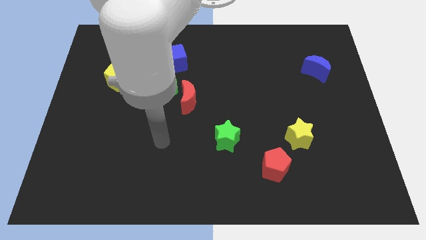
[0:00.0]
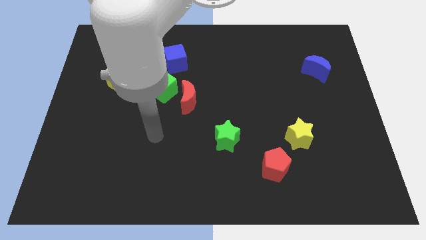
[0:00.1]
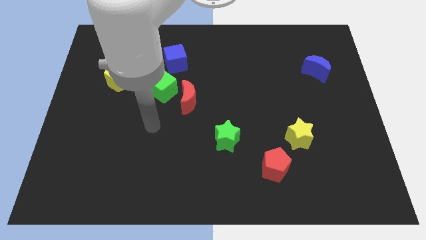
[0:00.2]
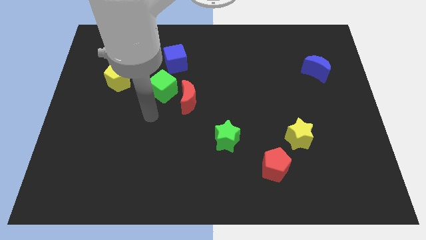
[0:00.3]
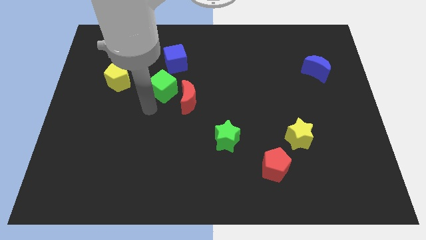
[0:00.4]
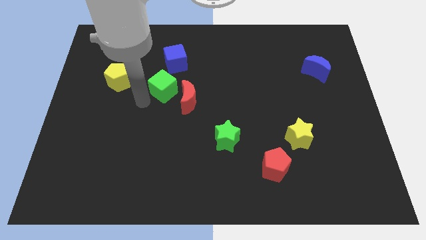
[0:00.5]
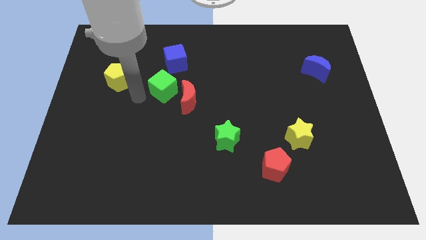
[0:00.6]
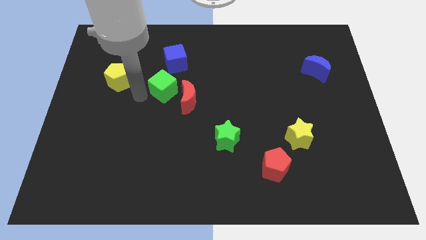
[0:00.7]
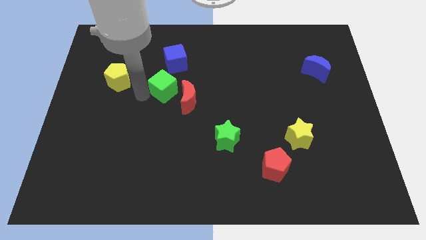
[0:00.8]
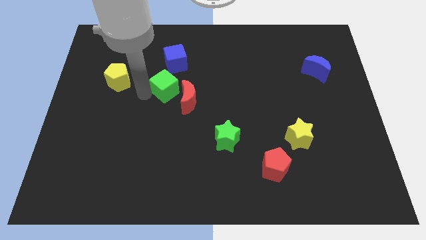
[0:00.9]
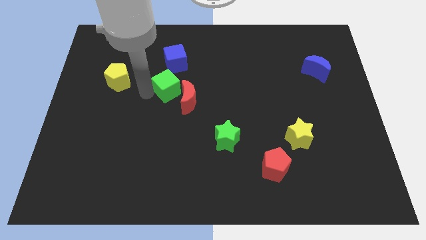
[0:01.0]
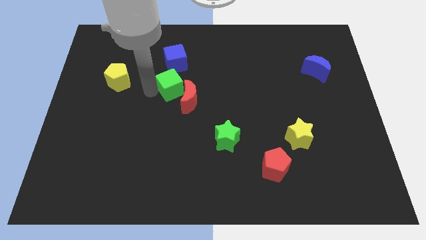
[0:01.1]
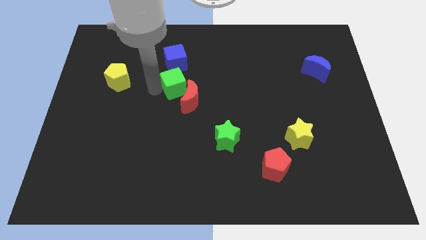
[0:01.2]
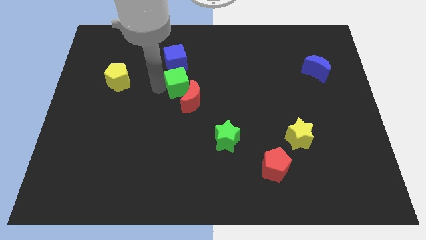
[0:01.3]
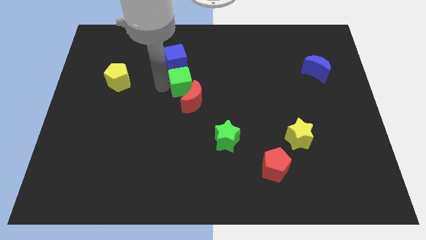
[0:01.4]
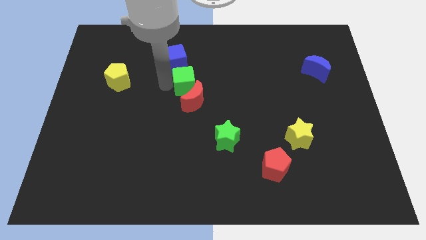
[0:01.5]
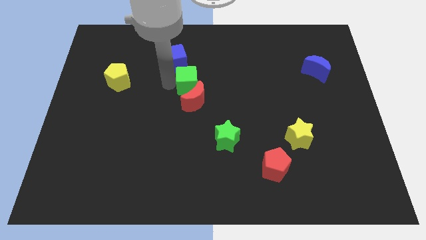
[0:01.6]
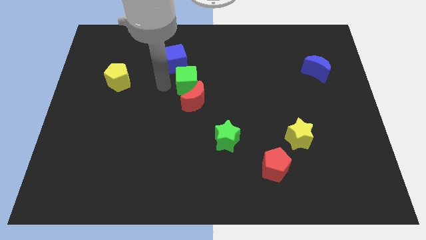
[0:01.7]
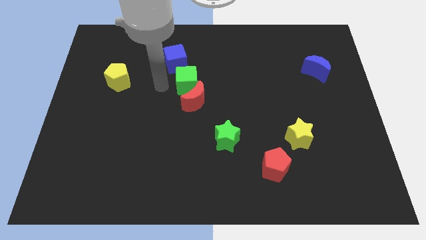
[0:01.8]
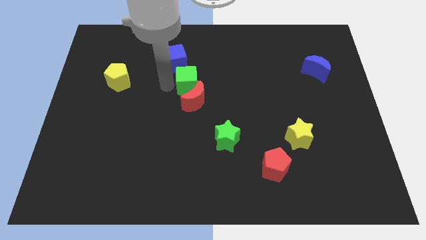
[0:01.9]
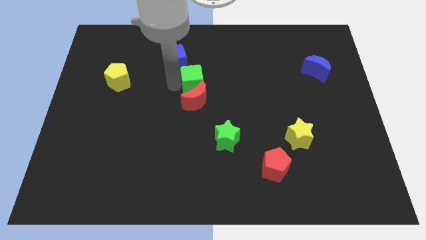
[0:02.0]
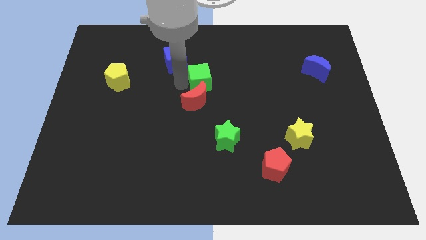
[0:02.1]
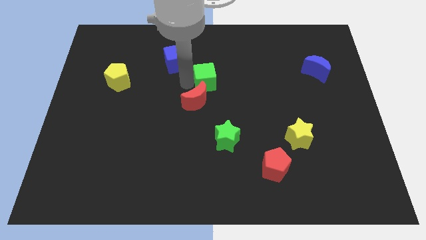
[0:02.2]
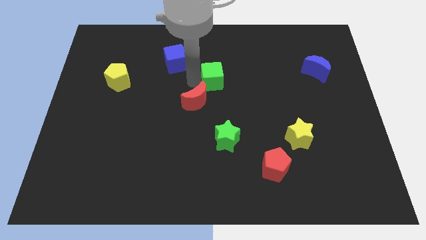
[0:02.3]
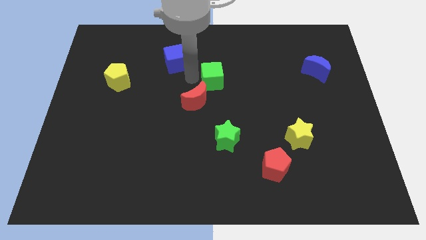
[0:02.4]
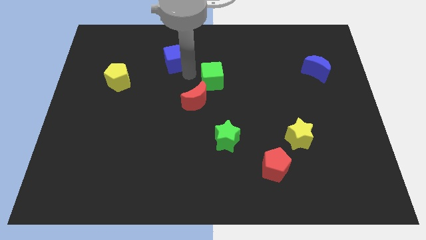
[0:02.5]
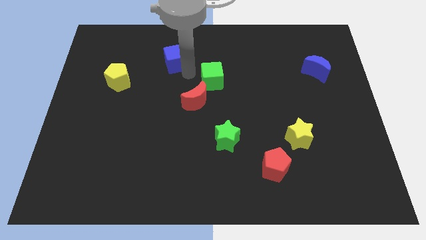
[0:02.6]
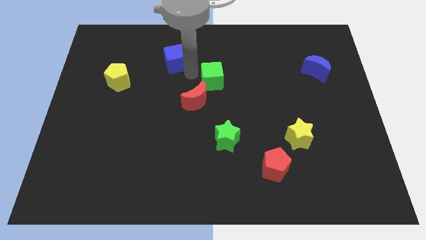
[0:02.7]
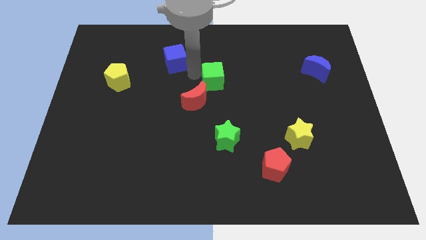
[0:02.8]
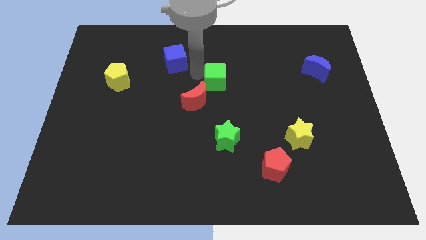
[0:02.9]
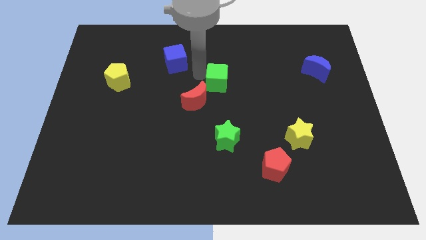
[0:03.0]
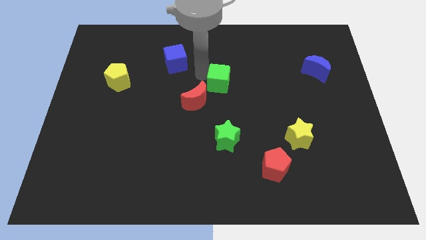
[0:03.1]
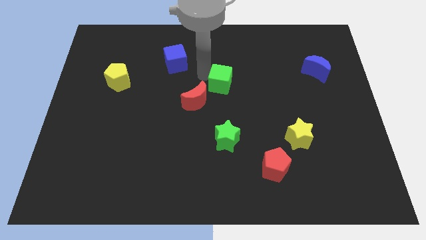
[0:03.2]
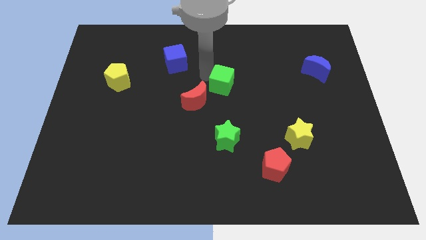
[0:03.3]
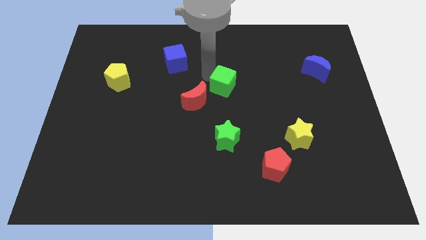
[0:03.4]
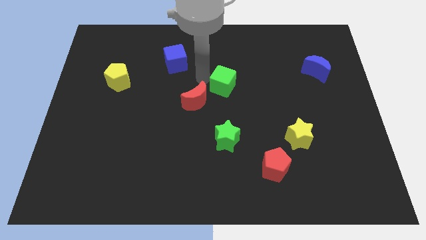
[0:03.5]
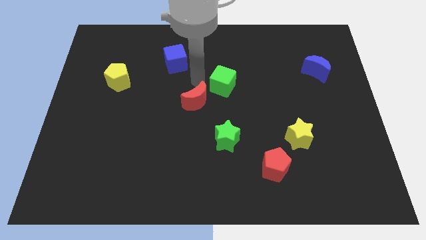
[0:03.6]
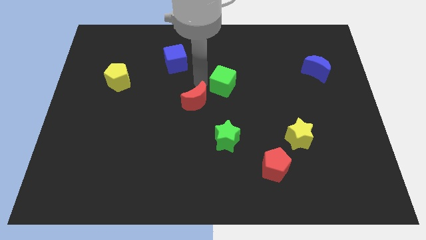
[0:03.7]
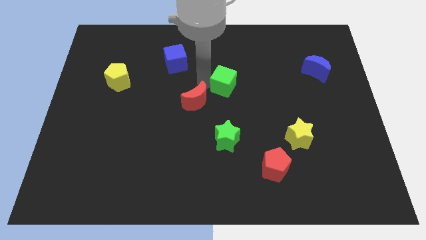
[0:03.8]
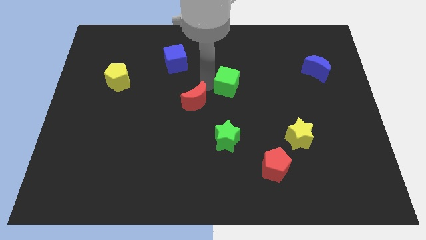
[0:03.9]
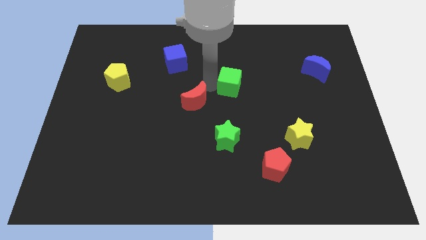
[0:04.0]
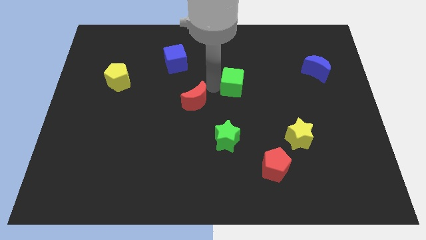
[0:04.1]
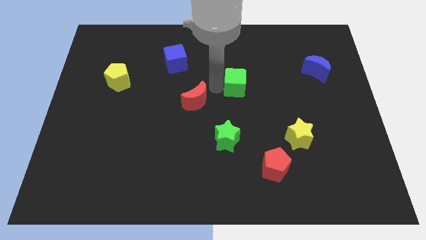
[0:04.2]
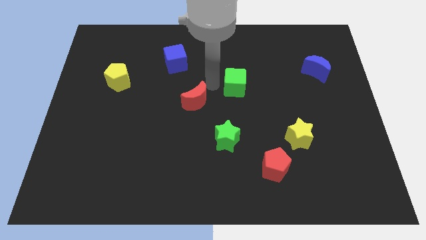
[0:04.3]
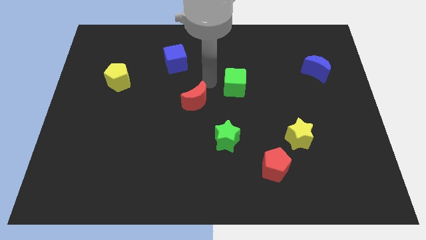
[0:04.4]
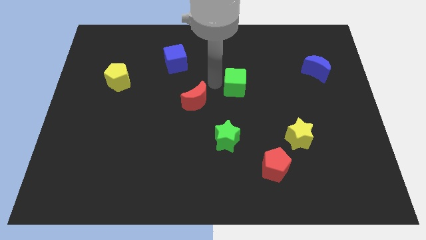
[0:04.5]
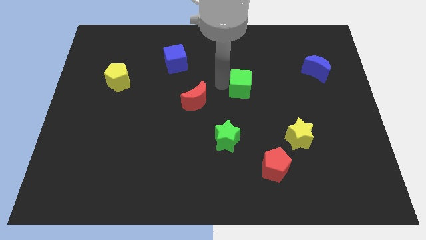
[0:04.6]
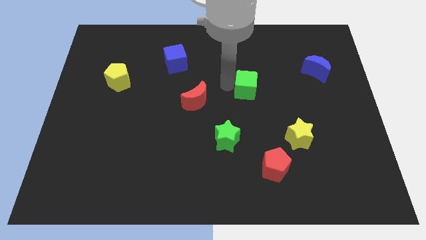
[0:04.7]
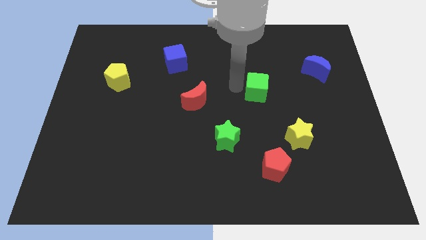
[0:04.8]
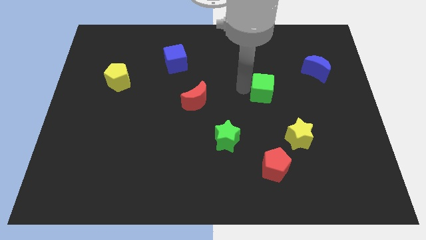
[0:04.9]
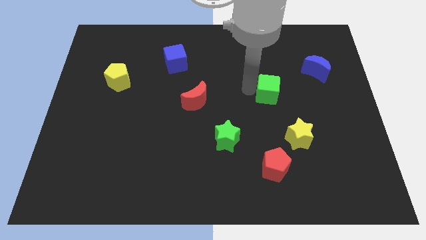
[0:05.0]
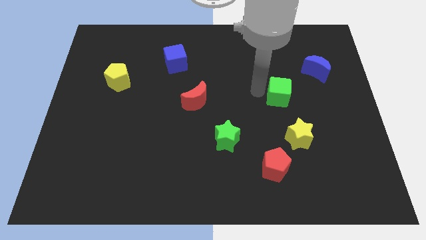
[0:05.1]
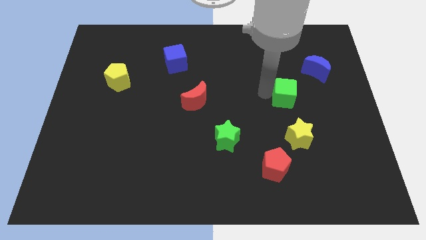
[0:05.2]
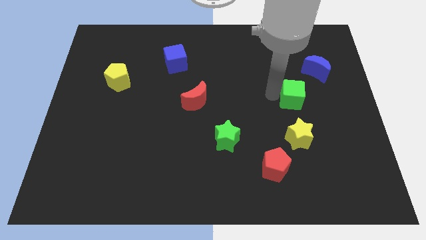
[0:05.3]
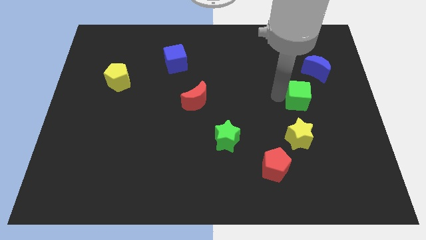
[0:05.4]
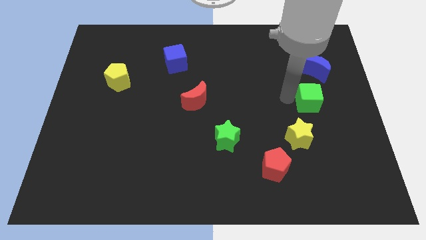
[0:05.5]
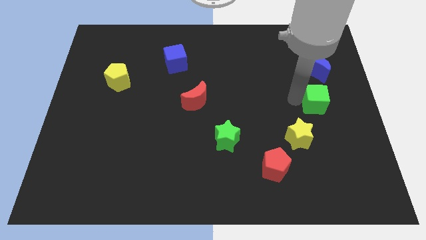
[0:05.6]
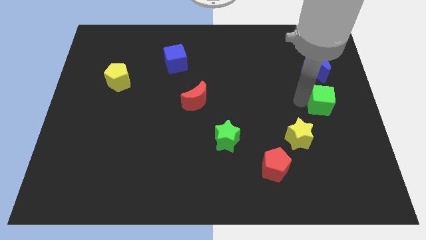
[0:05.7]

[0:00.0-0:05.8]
slide the green cube to the right side of the board
